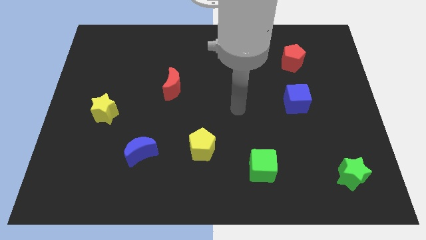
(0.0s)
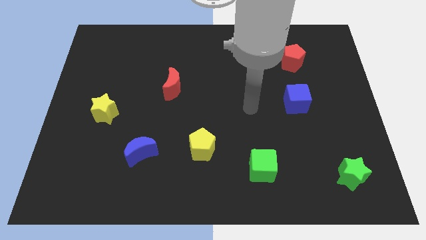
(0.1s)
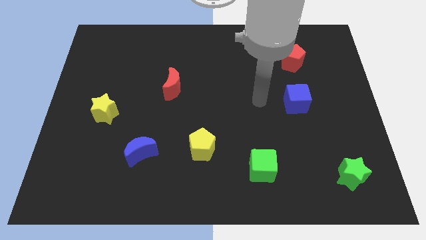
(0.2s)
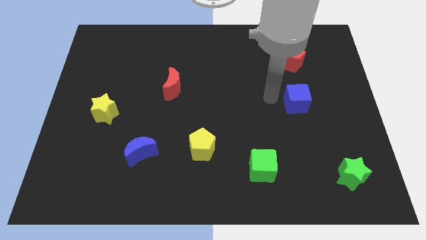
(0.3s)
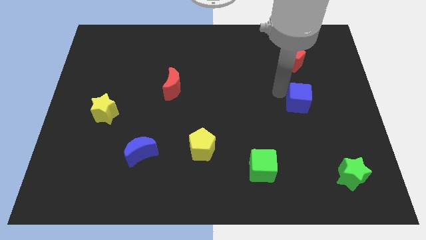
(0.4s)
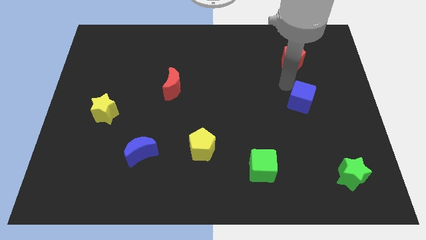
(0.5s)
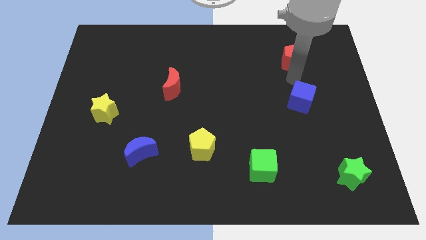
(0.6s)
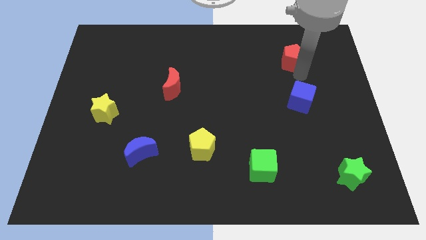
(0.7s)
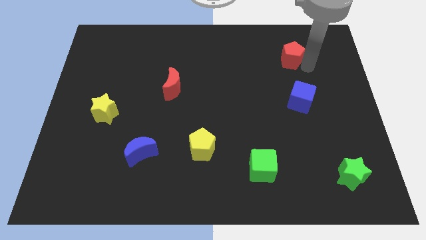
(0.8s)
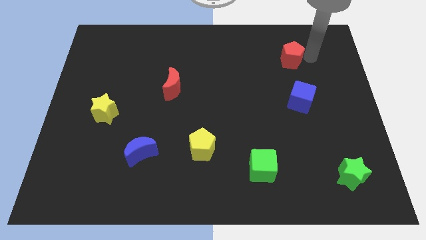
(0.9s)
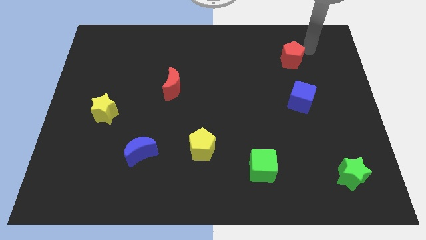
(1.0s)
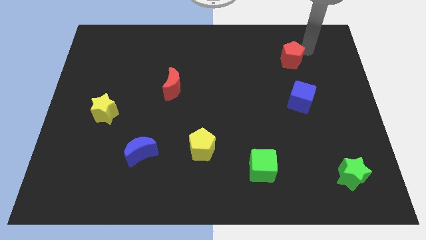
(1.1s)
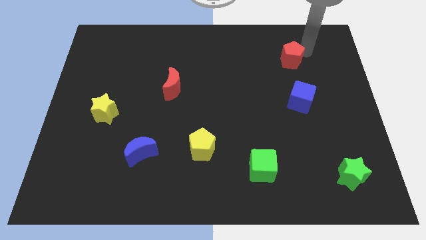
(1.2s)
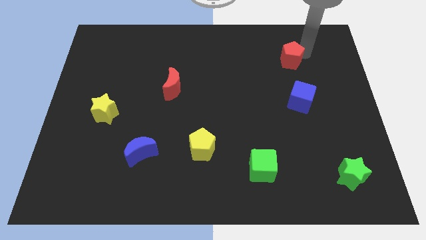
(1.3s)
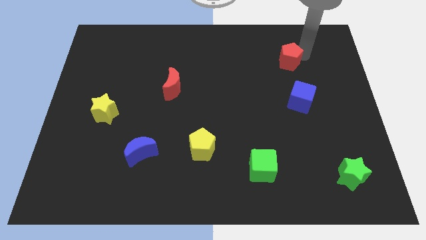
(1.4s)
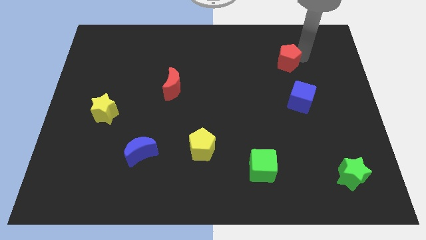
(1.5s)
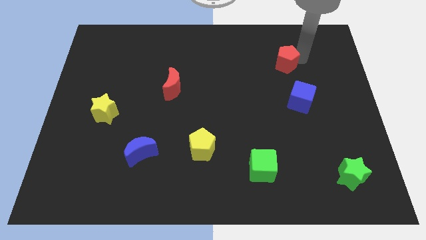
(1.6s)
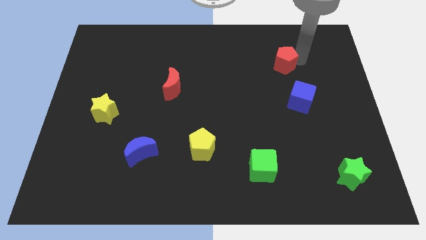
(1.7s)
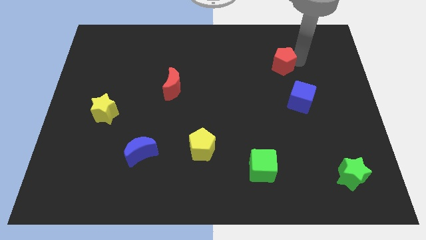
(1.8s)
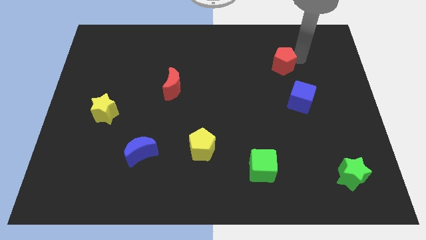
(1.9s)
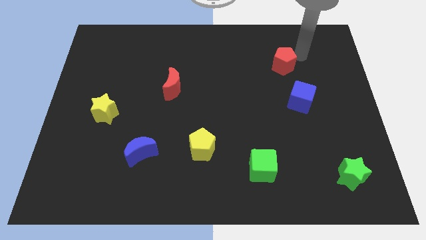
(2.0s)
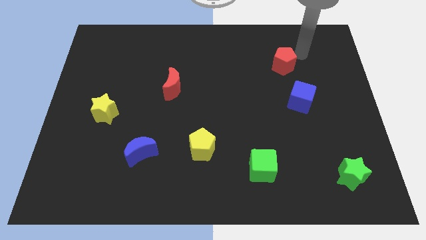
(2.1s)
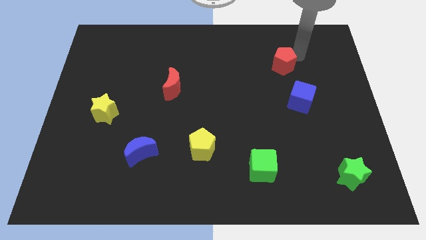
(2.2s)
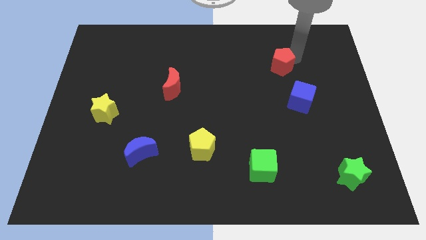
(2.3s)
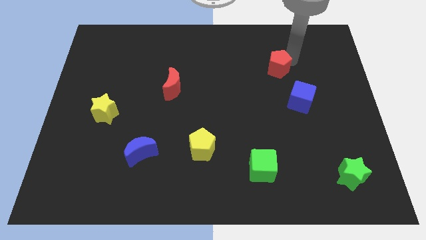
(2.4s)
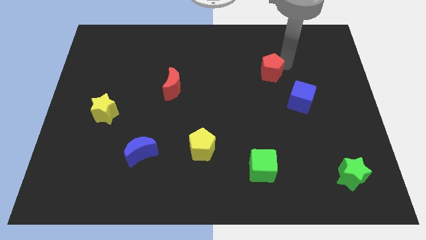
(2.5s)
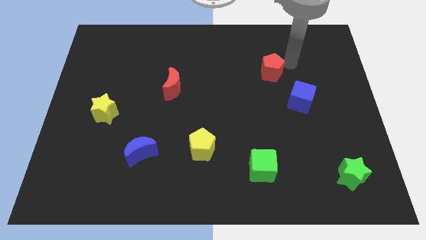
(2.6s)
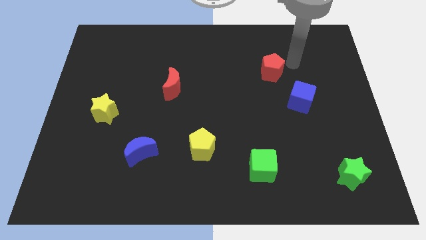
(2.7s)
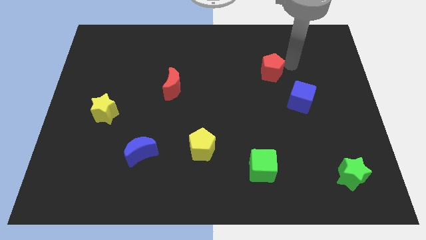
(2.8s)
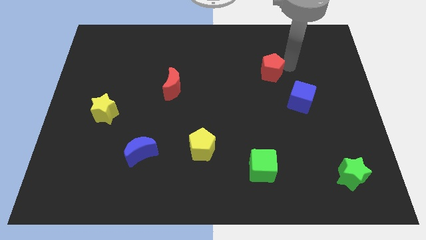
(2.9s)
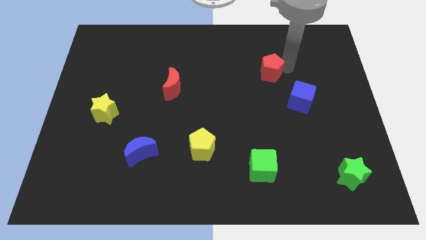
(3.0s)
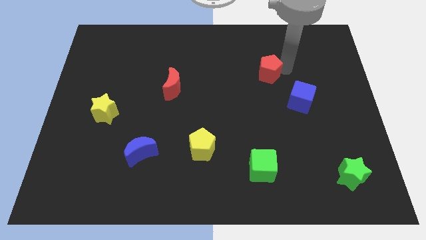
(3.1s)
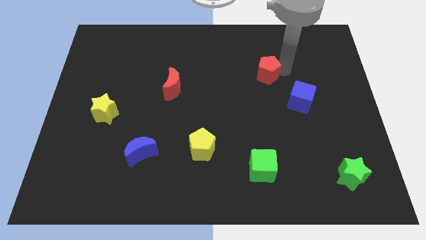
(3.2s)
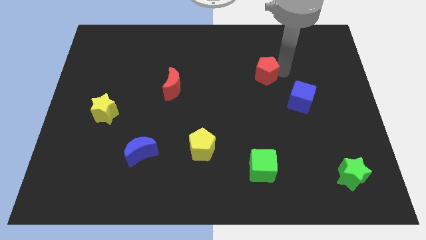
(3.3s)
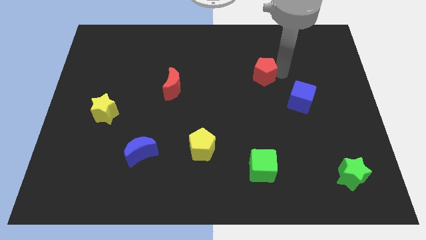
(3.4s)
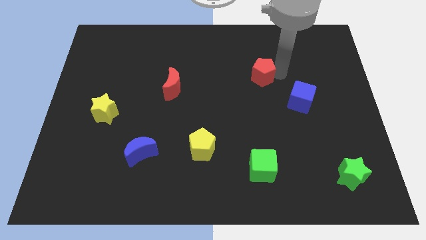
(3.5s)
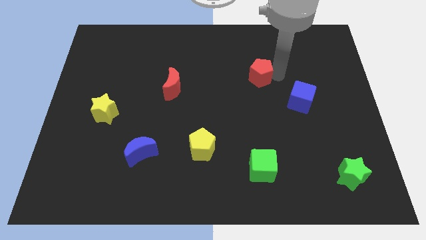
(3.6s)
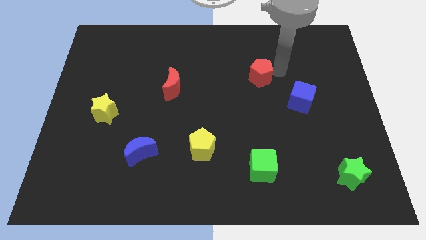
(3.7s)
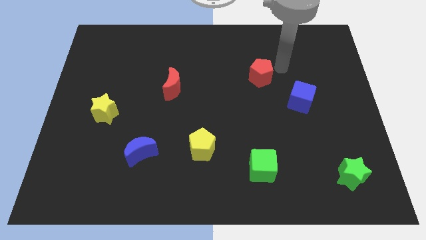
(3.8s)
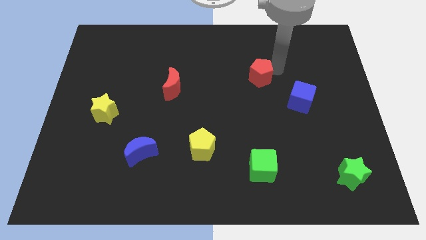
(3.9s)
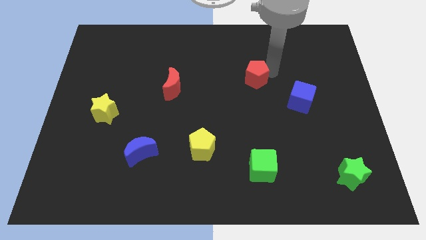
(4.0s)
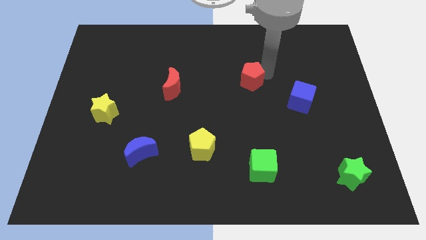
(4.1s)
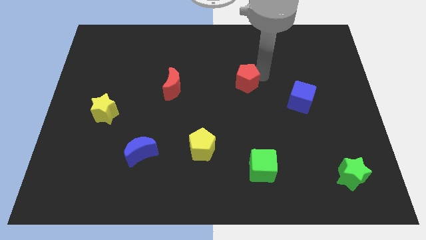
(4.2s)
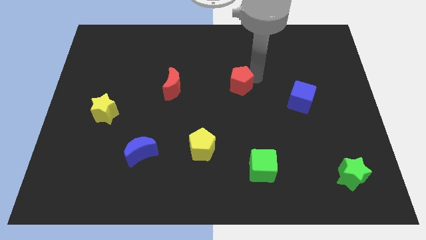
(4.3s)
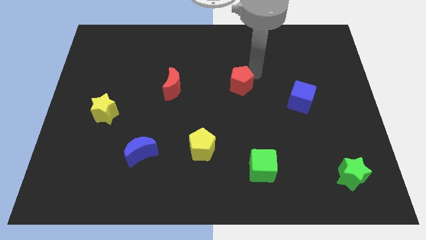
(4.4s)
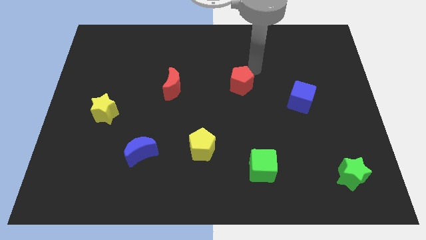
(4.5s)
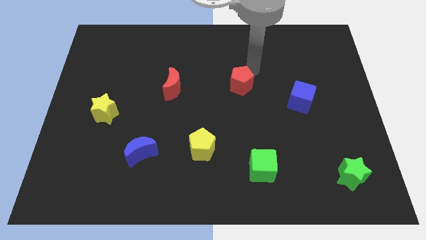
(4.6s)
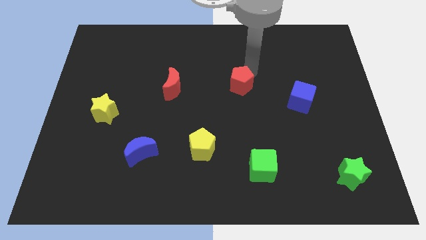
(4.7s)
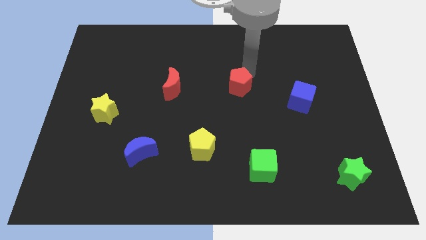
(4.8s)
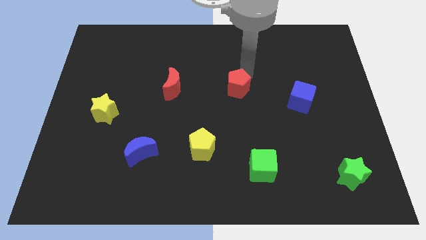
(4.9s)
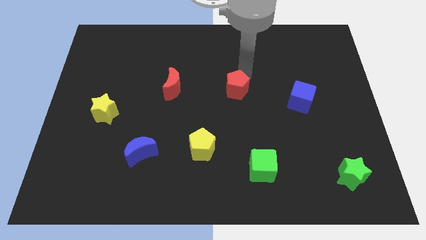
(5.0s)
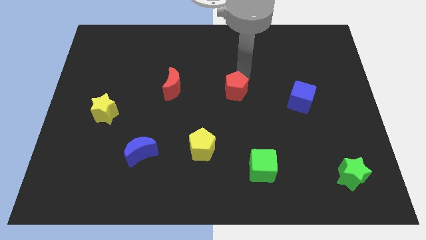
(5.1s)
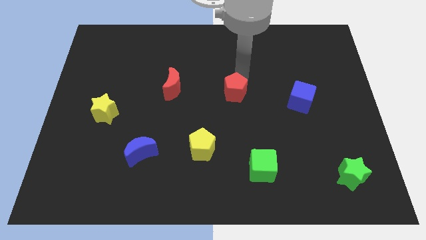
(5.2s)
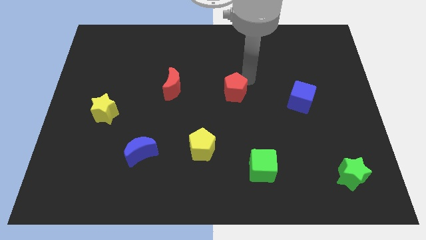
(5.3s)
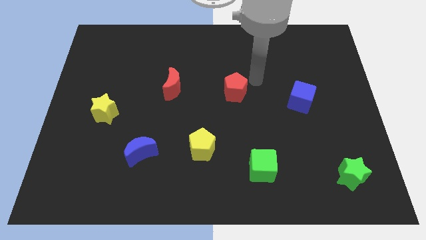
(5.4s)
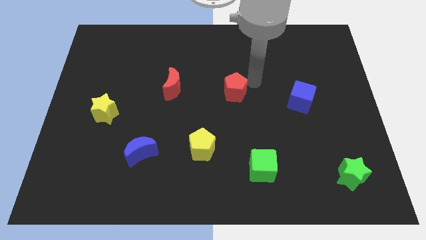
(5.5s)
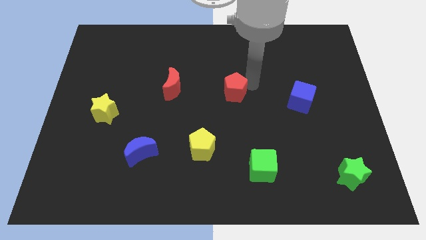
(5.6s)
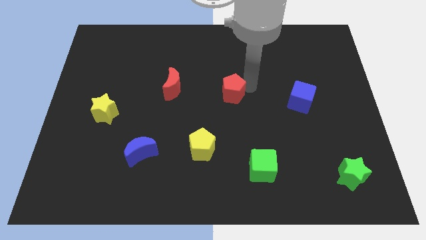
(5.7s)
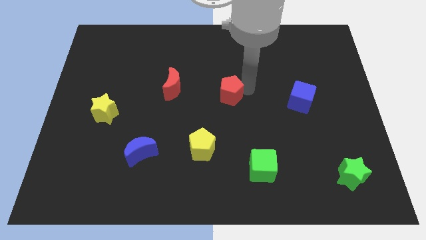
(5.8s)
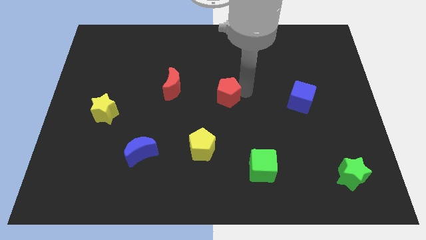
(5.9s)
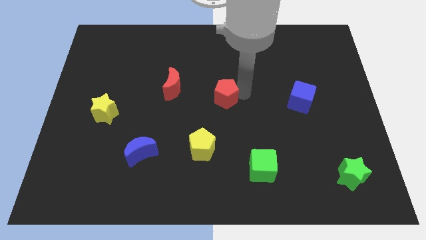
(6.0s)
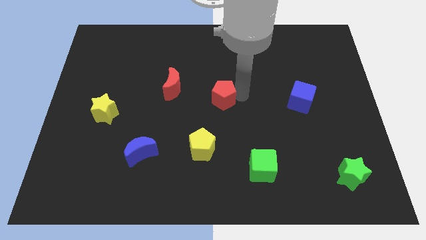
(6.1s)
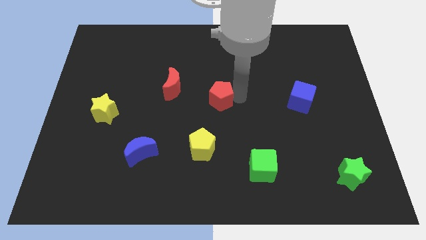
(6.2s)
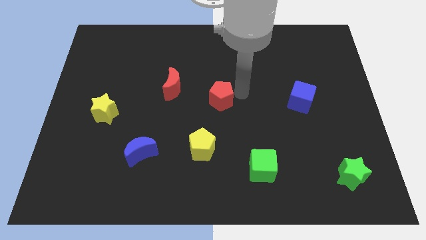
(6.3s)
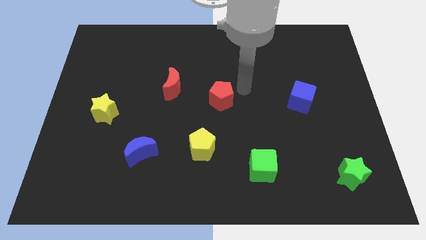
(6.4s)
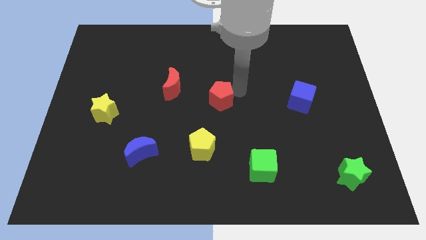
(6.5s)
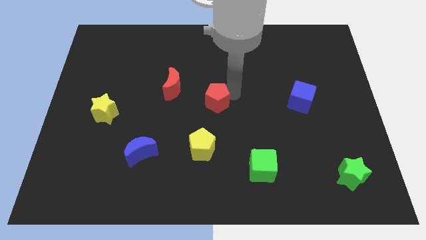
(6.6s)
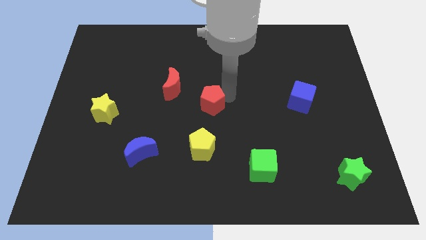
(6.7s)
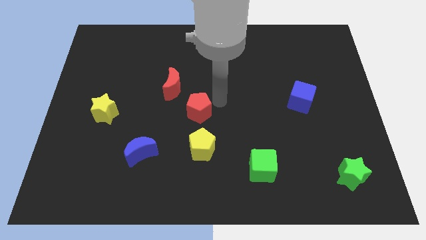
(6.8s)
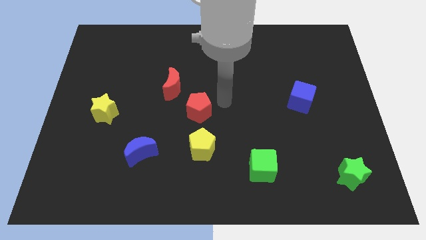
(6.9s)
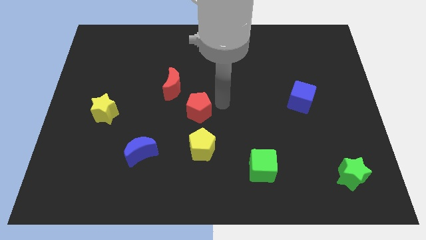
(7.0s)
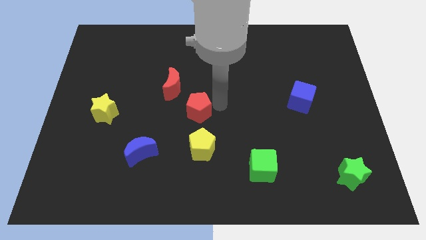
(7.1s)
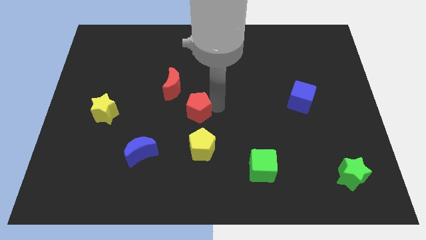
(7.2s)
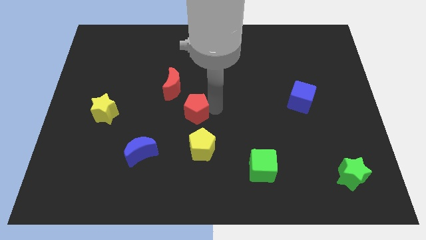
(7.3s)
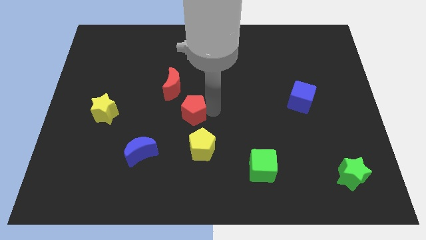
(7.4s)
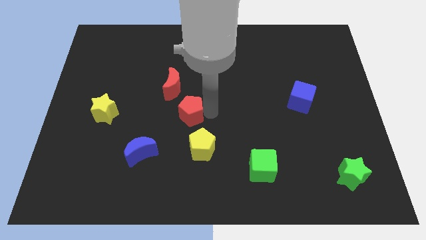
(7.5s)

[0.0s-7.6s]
put the red pentagon below the red moon
